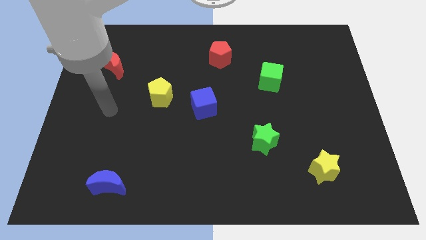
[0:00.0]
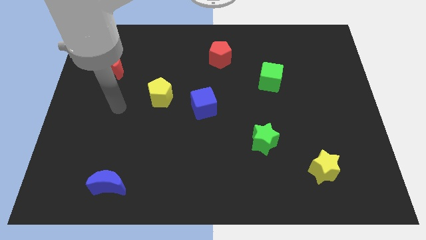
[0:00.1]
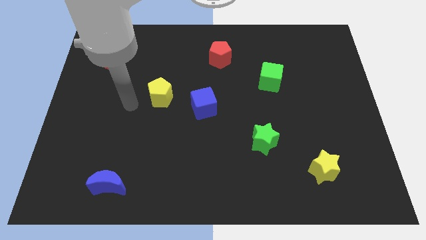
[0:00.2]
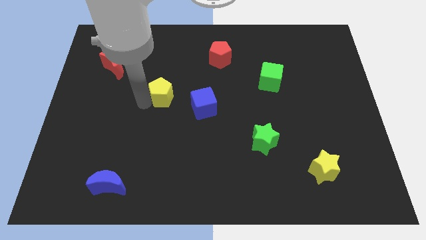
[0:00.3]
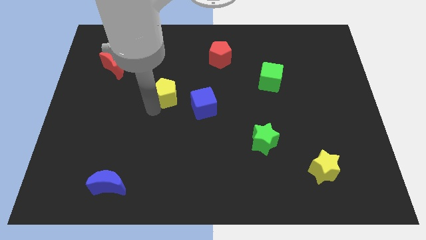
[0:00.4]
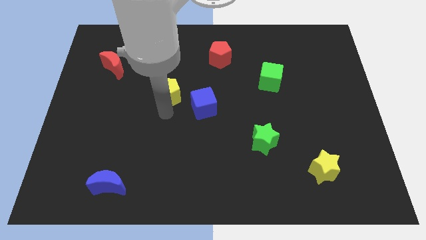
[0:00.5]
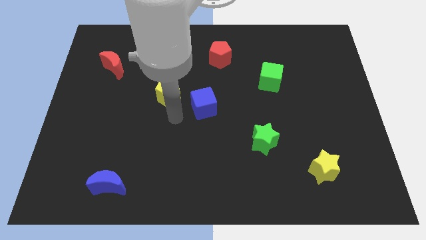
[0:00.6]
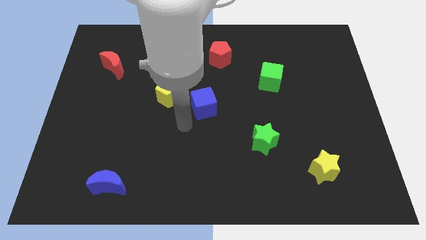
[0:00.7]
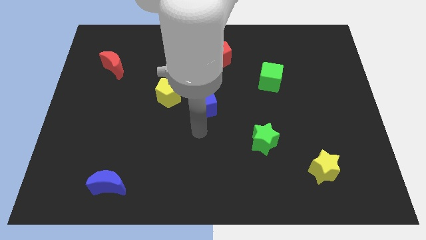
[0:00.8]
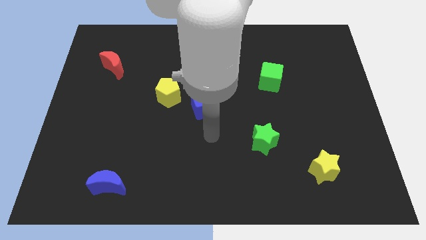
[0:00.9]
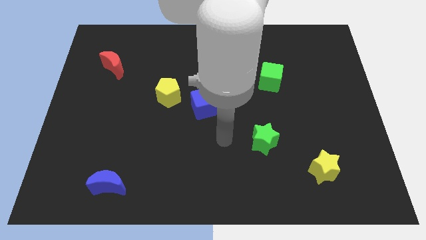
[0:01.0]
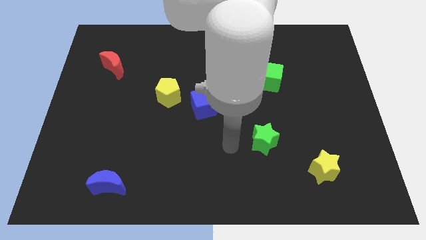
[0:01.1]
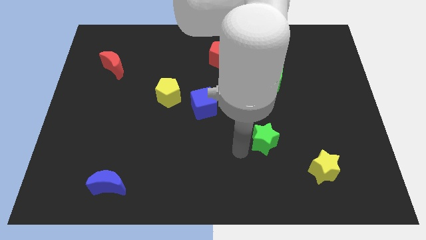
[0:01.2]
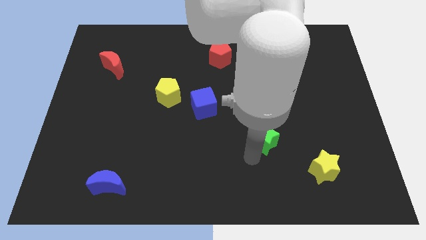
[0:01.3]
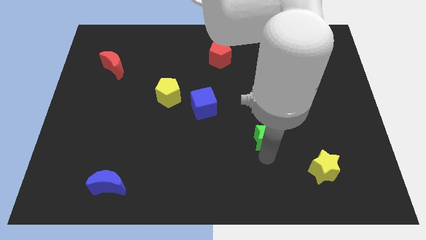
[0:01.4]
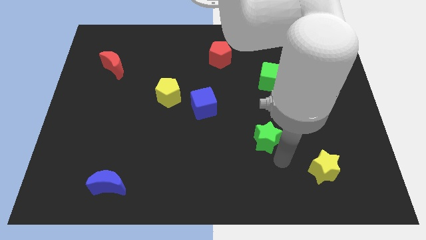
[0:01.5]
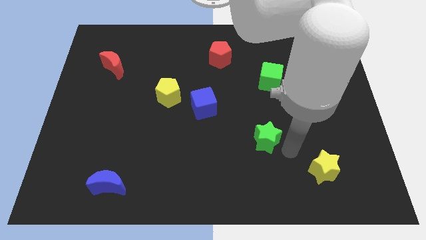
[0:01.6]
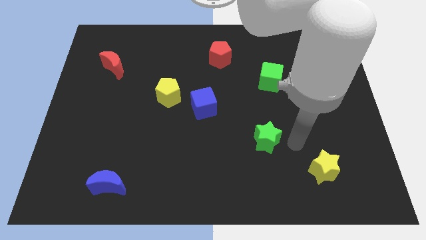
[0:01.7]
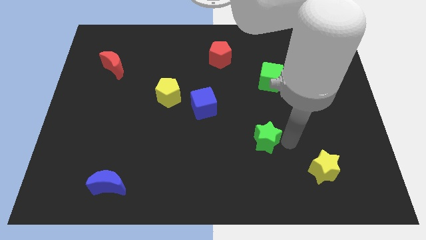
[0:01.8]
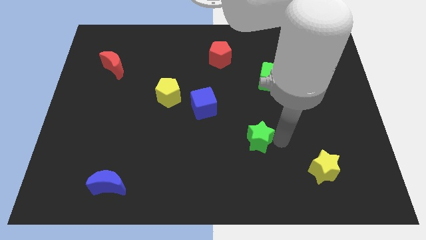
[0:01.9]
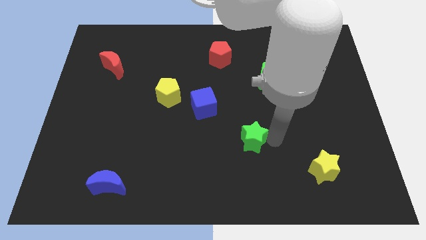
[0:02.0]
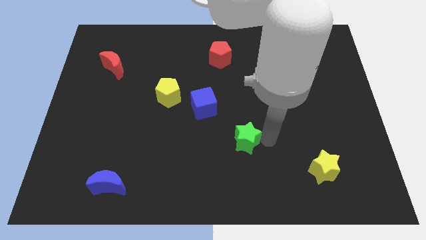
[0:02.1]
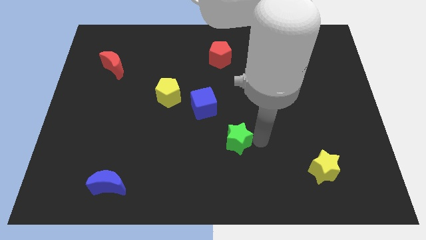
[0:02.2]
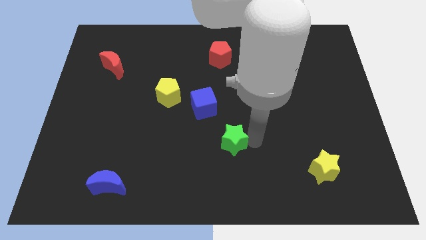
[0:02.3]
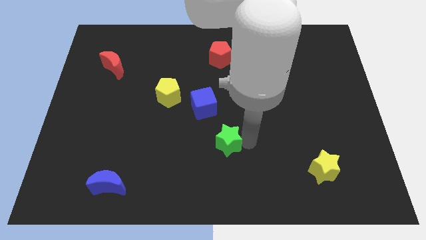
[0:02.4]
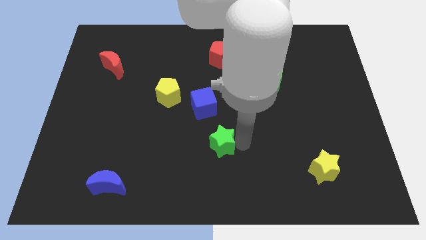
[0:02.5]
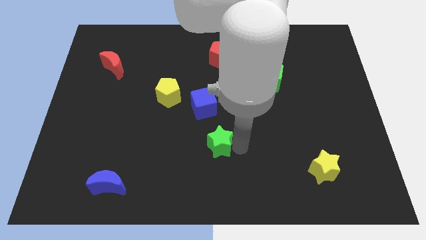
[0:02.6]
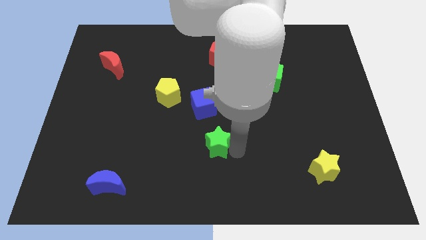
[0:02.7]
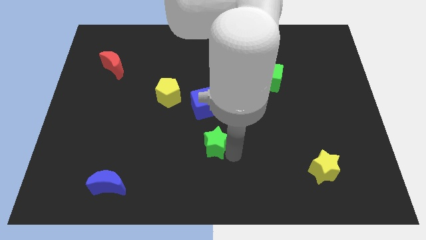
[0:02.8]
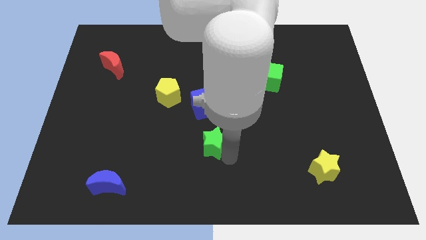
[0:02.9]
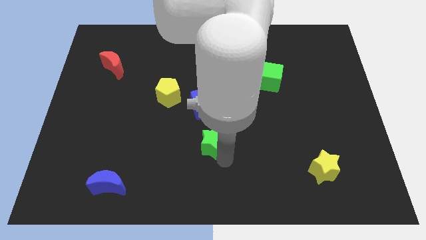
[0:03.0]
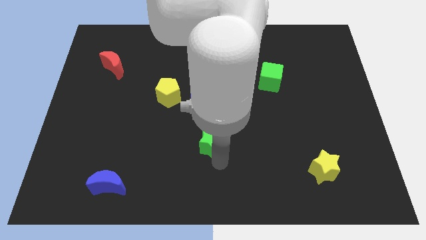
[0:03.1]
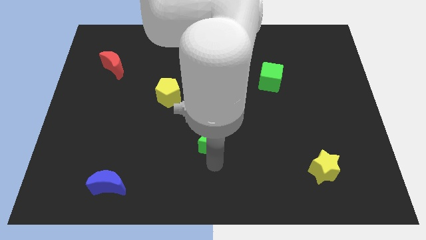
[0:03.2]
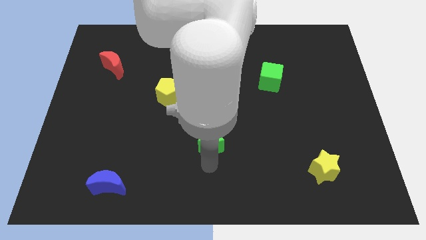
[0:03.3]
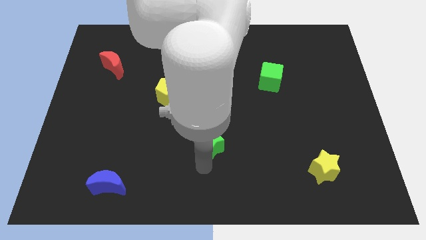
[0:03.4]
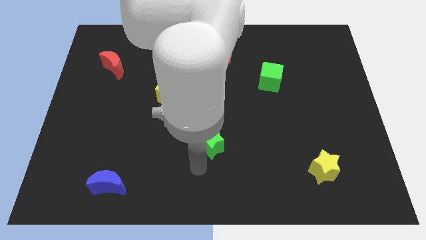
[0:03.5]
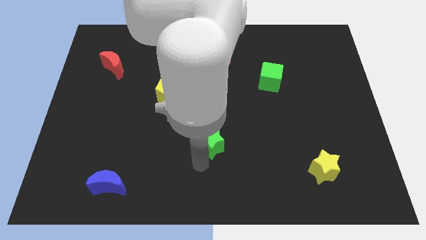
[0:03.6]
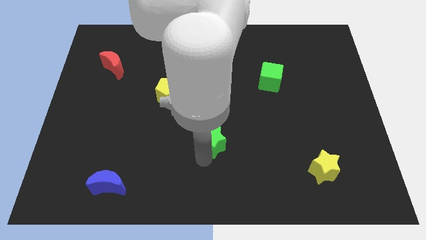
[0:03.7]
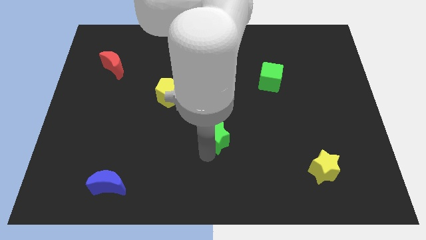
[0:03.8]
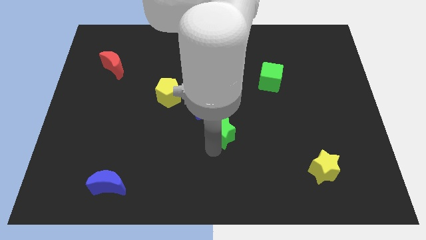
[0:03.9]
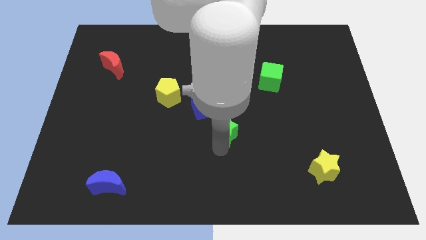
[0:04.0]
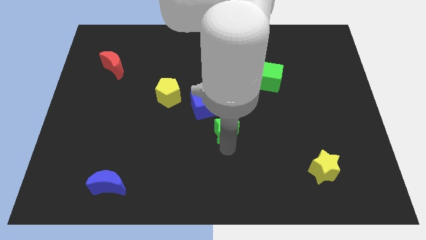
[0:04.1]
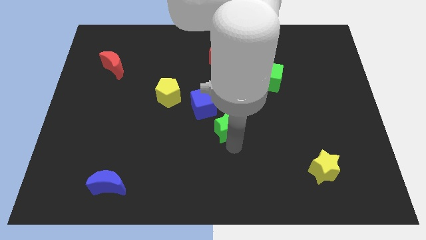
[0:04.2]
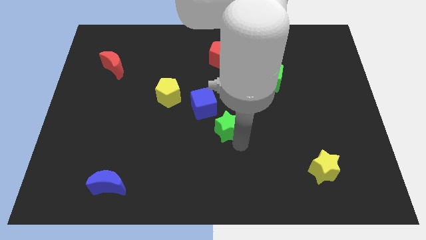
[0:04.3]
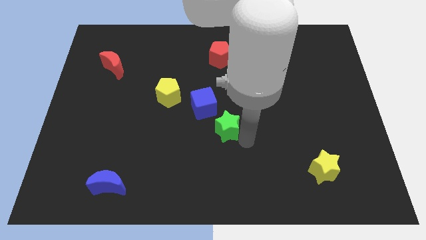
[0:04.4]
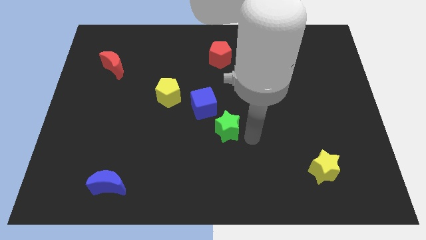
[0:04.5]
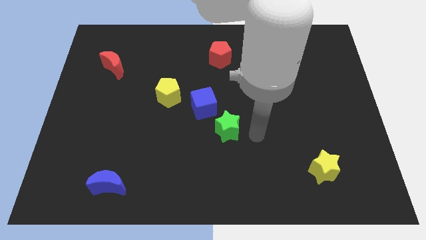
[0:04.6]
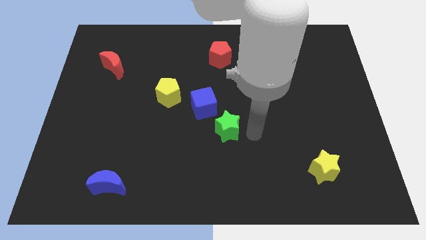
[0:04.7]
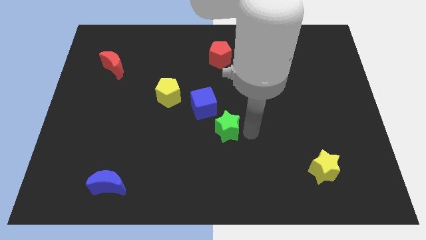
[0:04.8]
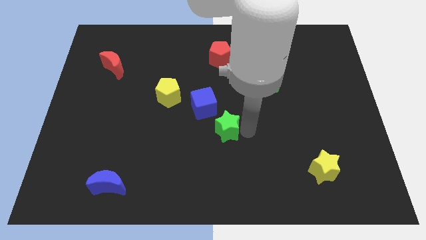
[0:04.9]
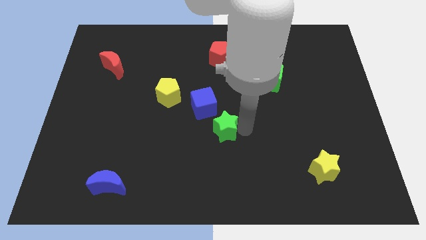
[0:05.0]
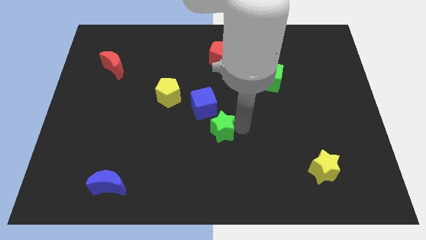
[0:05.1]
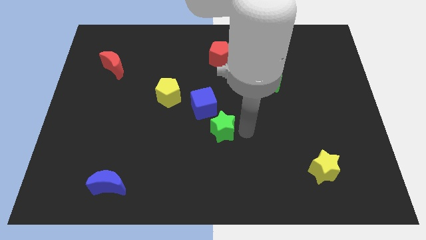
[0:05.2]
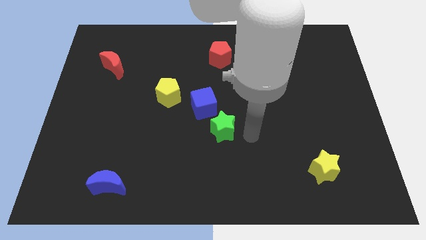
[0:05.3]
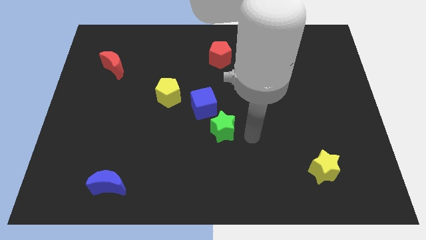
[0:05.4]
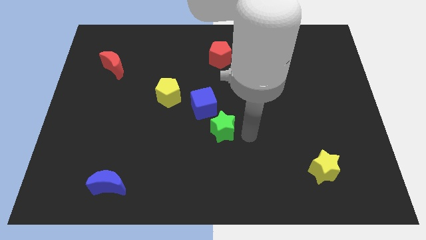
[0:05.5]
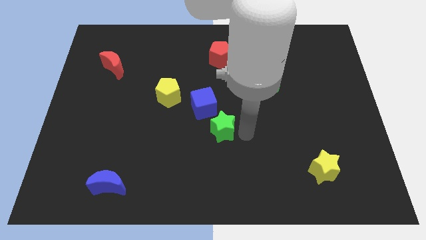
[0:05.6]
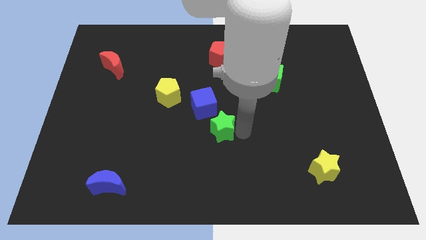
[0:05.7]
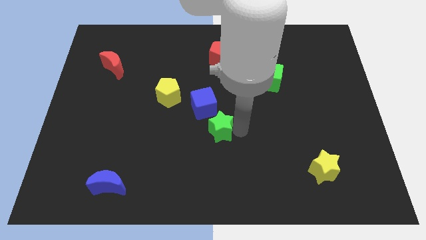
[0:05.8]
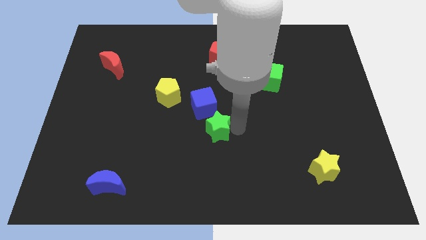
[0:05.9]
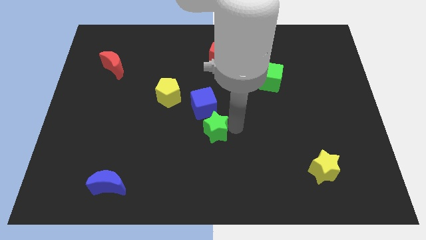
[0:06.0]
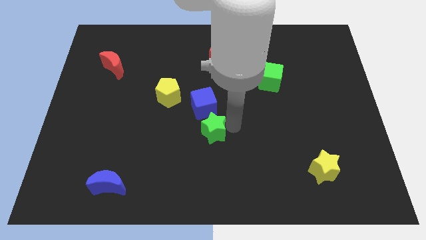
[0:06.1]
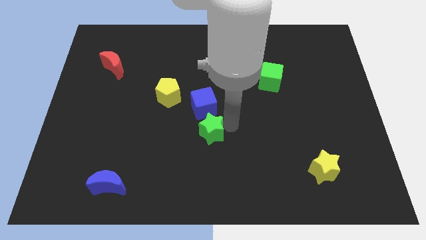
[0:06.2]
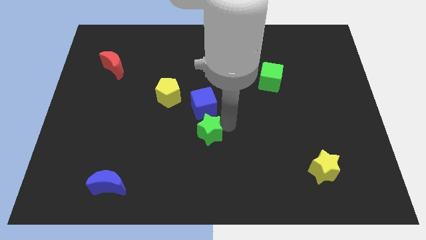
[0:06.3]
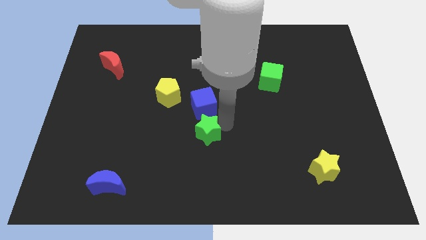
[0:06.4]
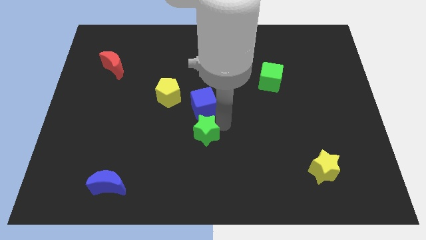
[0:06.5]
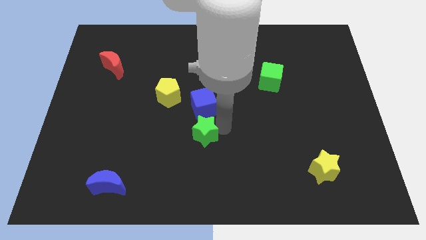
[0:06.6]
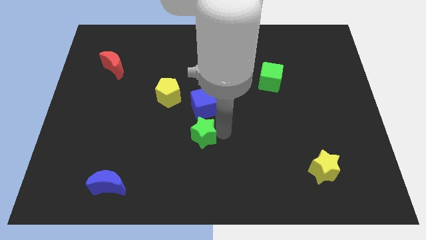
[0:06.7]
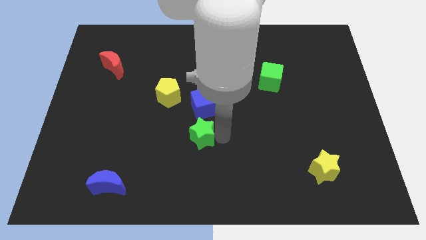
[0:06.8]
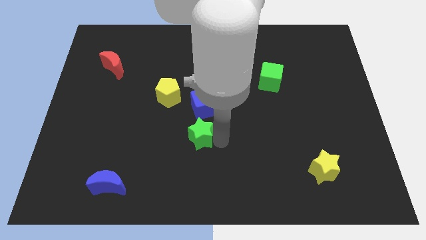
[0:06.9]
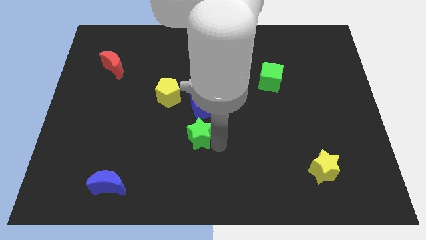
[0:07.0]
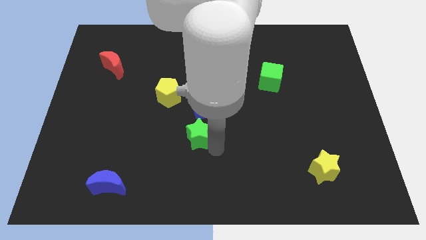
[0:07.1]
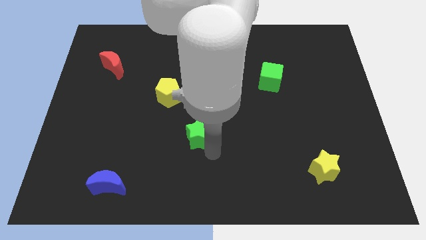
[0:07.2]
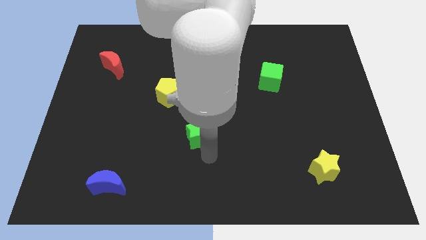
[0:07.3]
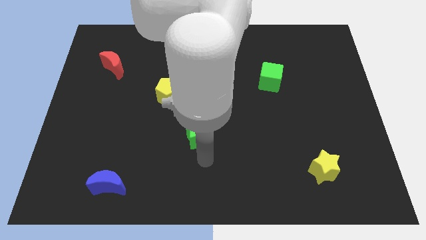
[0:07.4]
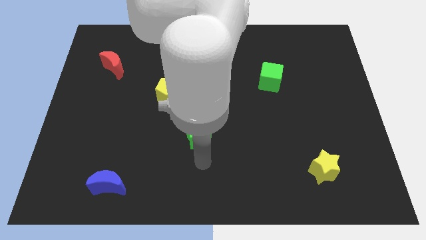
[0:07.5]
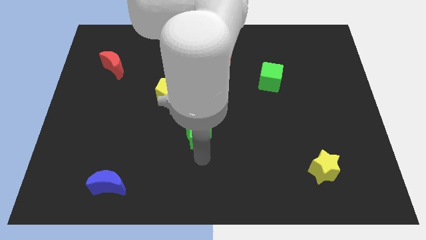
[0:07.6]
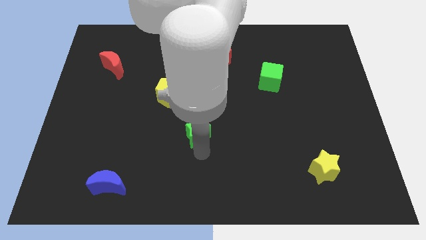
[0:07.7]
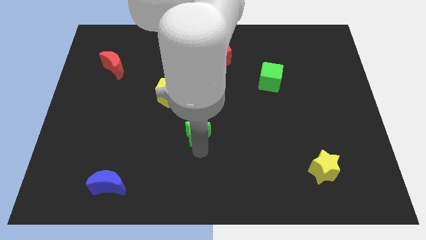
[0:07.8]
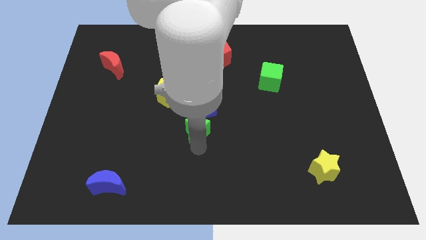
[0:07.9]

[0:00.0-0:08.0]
push the green star diagonally down and to the right of the yellow pentagon

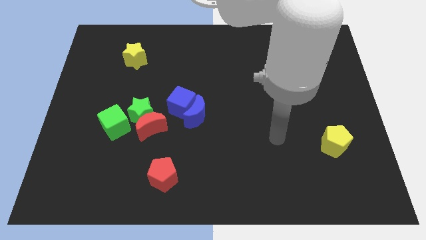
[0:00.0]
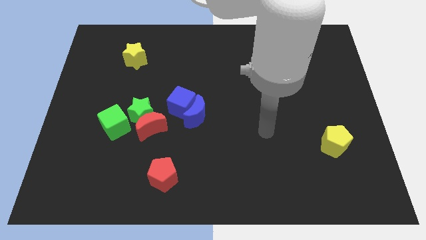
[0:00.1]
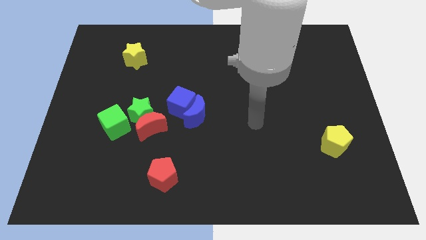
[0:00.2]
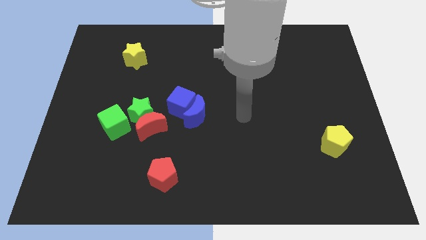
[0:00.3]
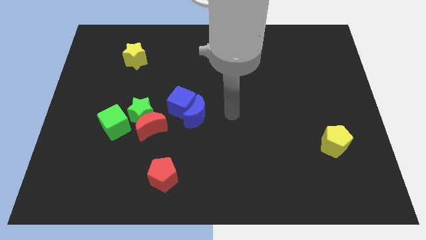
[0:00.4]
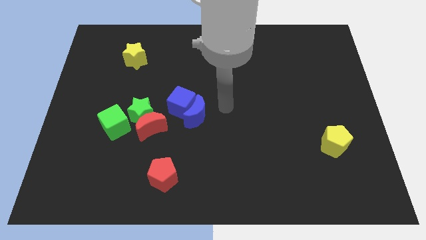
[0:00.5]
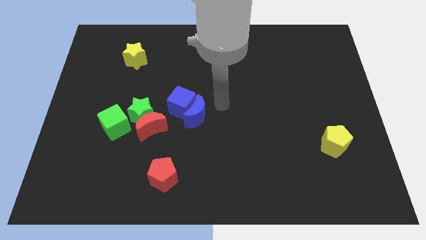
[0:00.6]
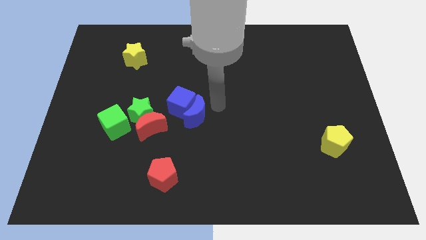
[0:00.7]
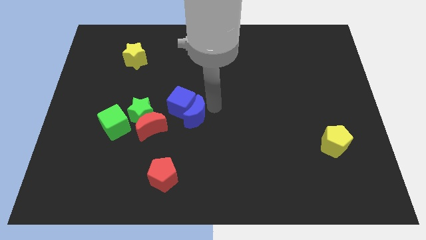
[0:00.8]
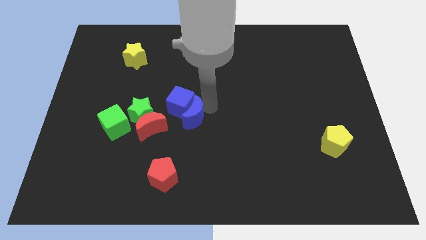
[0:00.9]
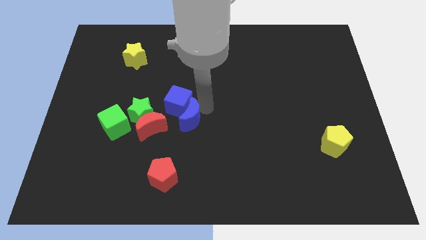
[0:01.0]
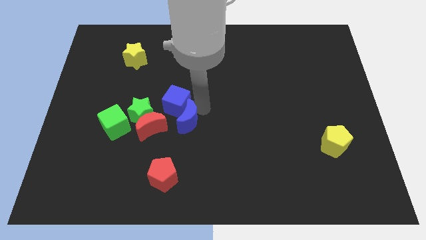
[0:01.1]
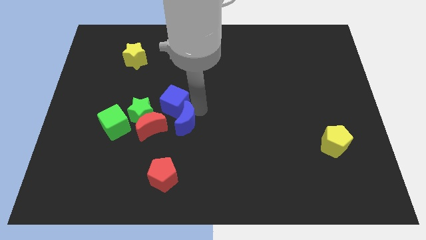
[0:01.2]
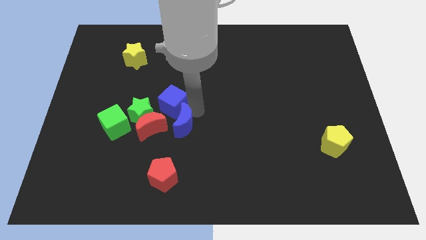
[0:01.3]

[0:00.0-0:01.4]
put the blue moon to the bottom right of the green star
